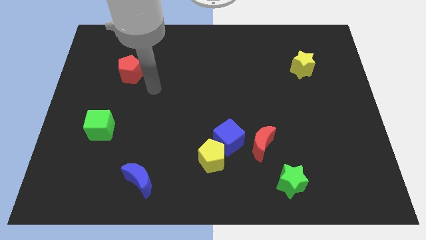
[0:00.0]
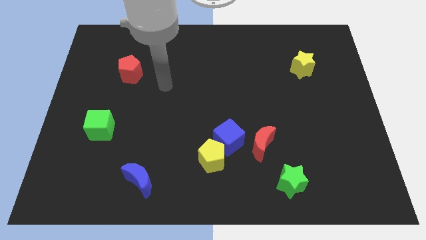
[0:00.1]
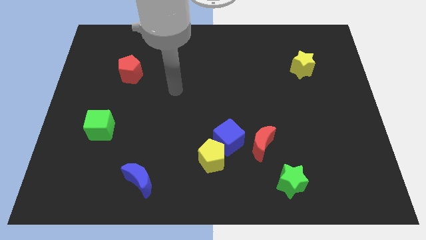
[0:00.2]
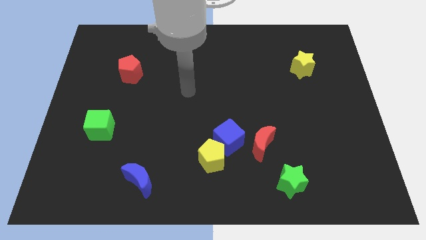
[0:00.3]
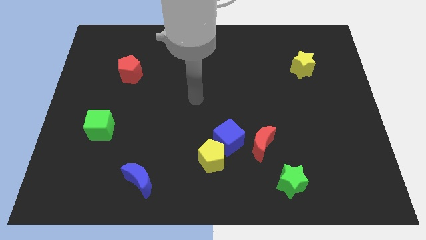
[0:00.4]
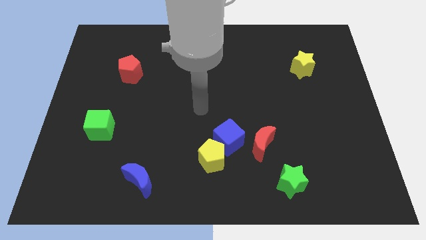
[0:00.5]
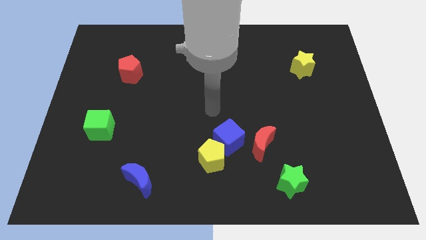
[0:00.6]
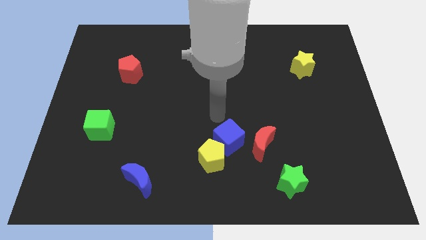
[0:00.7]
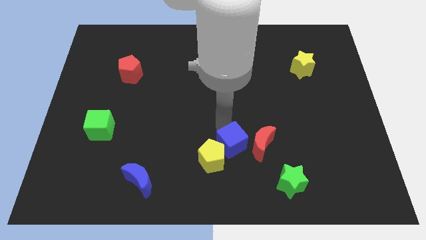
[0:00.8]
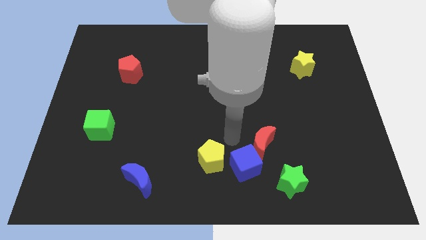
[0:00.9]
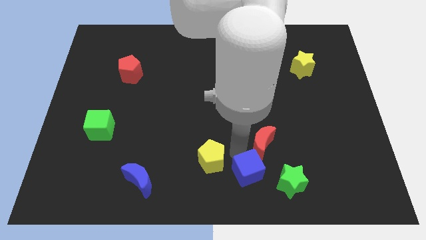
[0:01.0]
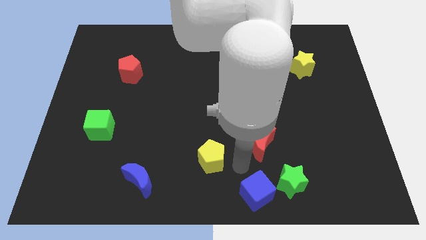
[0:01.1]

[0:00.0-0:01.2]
pull the yellow pentagon apart from the blue cube

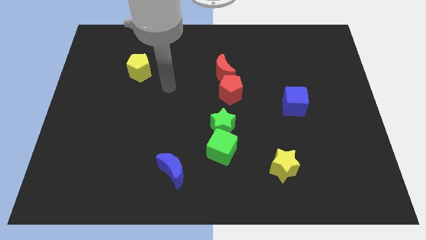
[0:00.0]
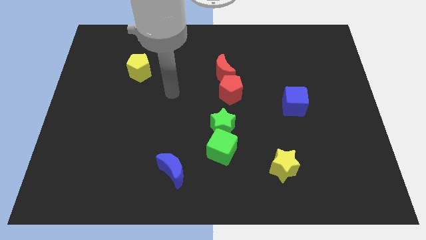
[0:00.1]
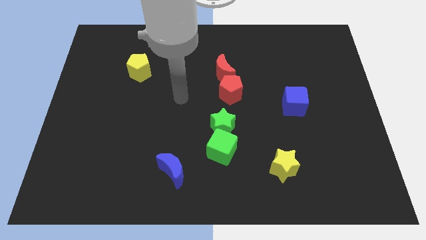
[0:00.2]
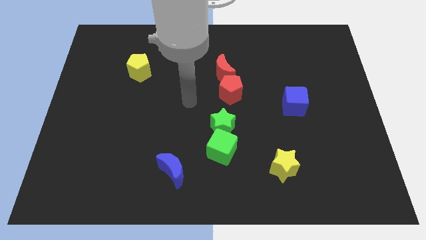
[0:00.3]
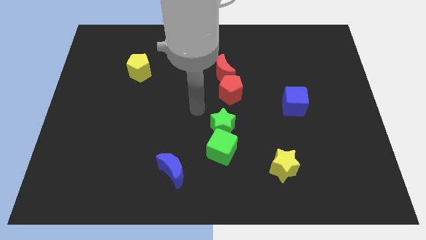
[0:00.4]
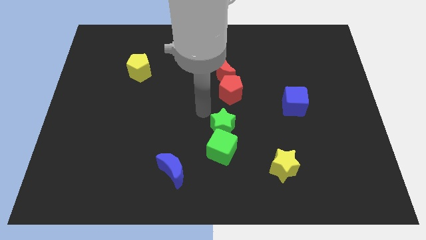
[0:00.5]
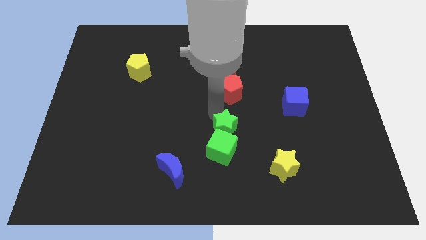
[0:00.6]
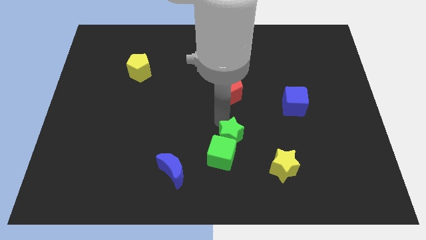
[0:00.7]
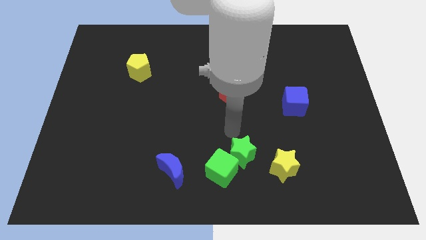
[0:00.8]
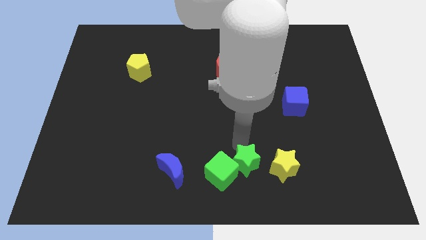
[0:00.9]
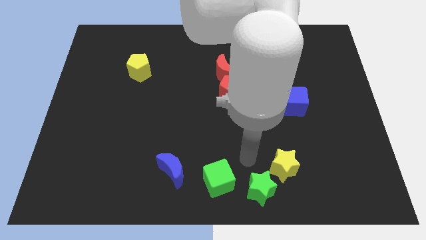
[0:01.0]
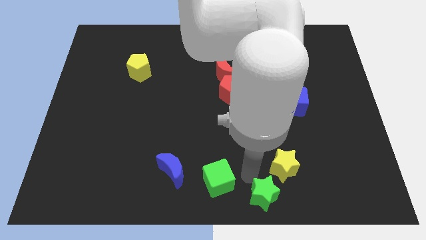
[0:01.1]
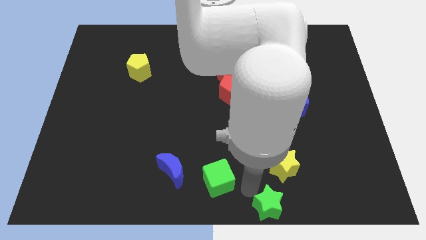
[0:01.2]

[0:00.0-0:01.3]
pull the green cube apart from the green star

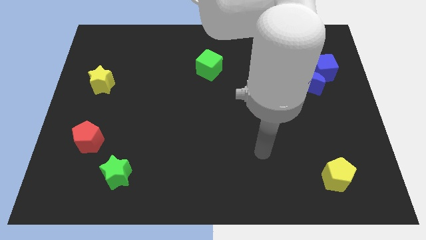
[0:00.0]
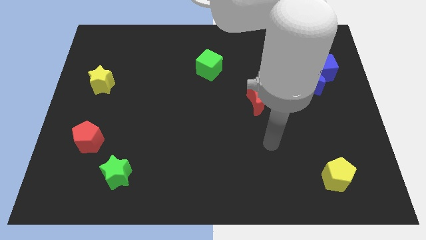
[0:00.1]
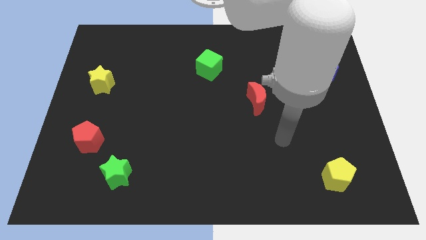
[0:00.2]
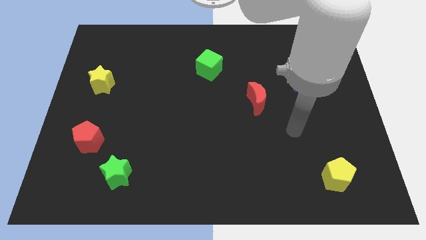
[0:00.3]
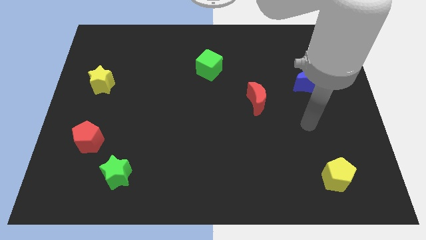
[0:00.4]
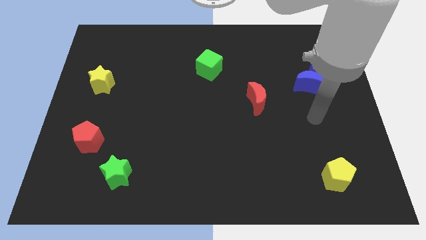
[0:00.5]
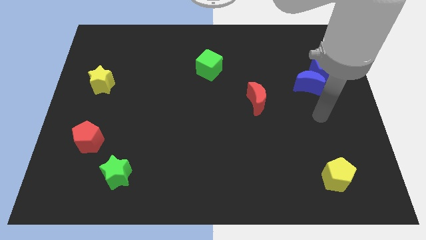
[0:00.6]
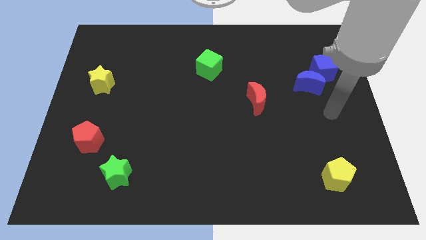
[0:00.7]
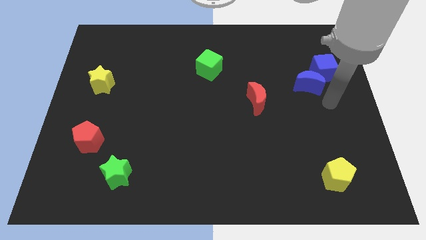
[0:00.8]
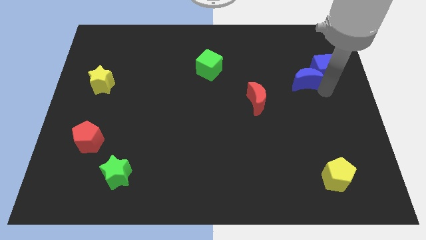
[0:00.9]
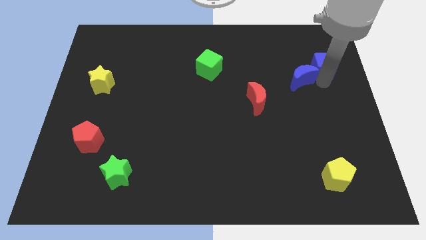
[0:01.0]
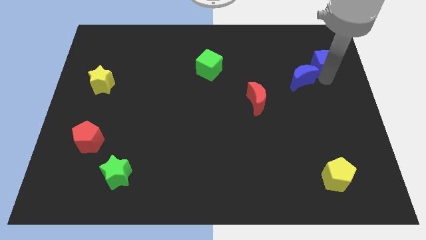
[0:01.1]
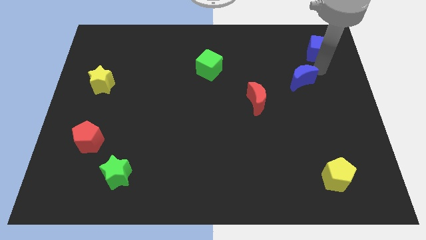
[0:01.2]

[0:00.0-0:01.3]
separate the blue moon from the blue cube

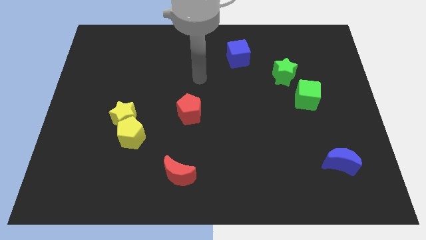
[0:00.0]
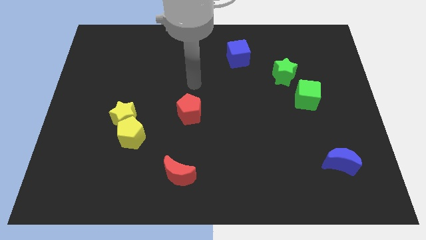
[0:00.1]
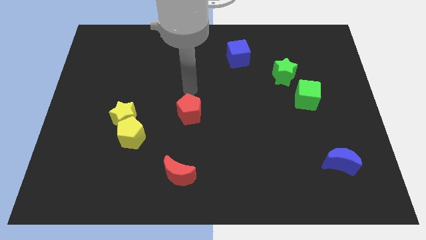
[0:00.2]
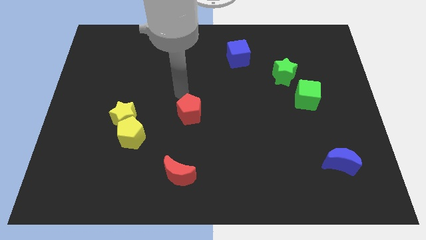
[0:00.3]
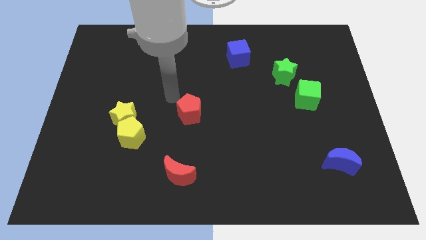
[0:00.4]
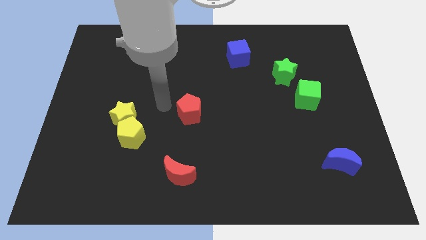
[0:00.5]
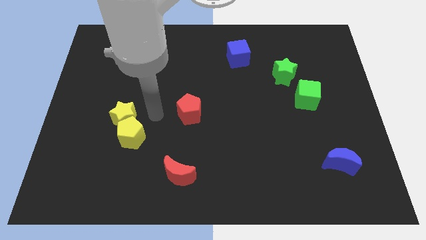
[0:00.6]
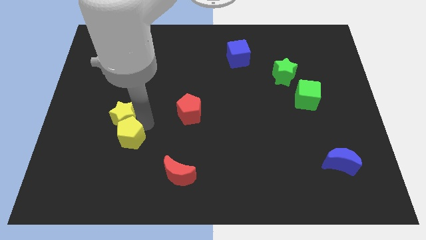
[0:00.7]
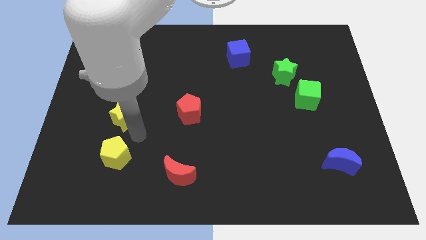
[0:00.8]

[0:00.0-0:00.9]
pull the yellow star apart from the yellow pentagon

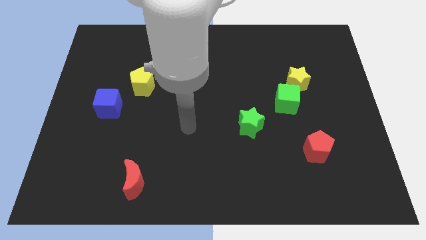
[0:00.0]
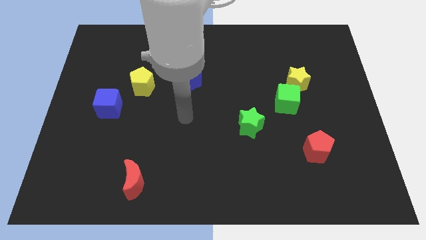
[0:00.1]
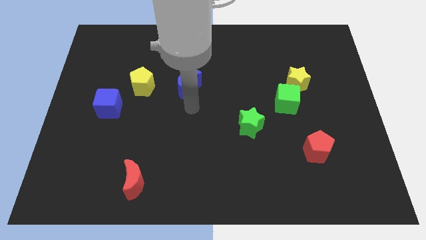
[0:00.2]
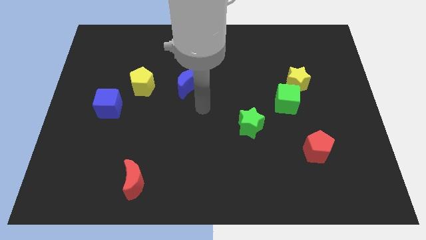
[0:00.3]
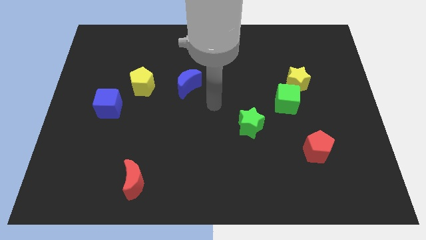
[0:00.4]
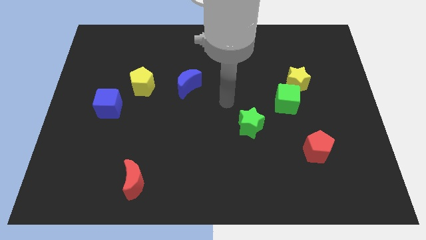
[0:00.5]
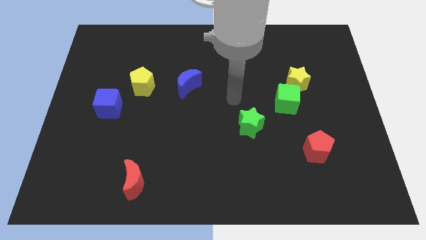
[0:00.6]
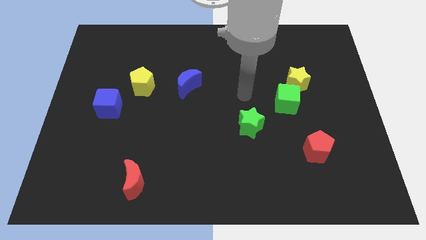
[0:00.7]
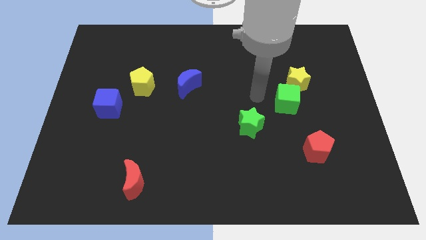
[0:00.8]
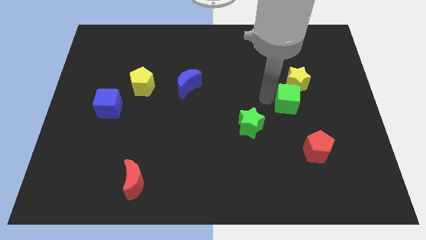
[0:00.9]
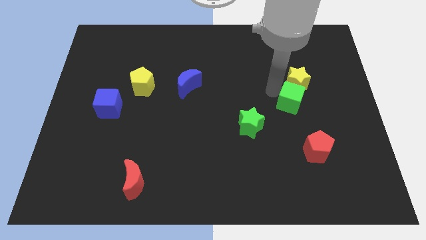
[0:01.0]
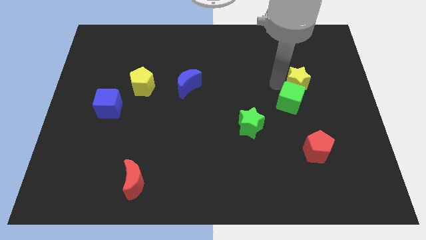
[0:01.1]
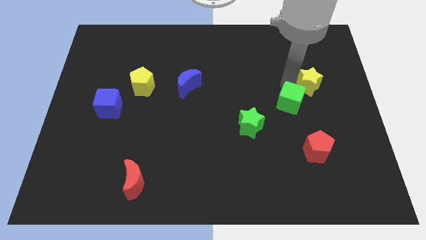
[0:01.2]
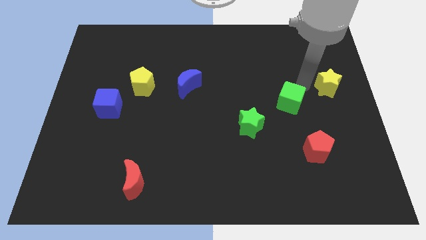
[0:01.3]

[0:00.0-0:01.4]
pull the green cube apart from the yellow star

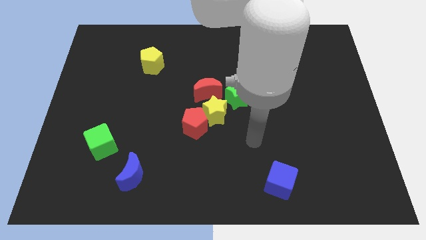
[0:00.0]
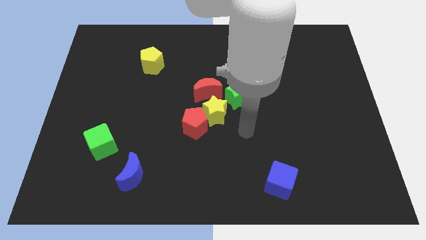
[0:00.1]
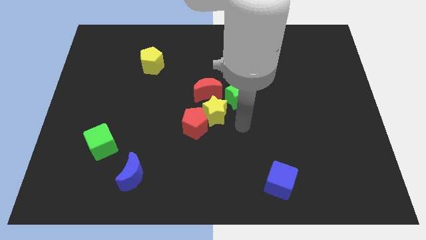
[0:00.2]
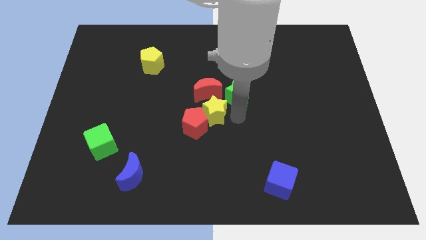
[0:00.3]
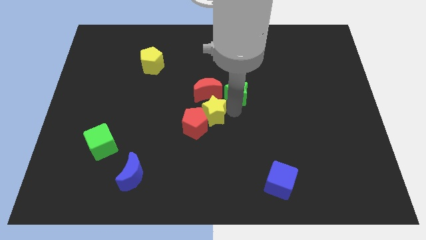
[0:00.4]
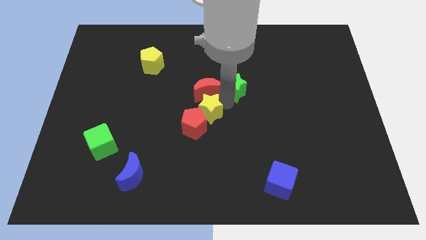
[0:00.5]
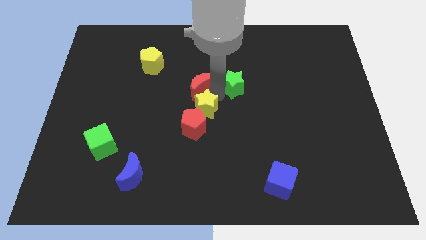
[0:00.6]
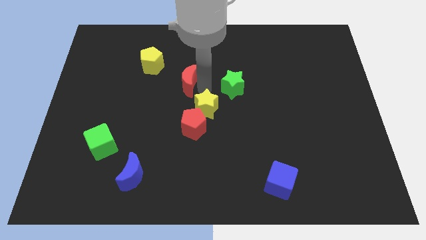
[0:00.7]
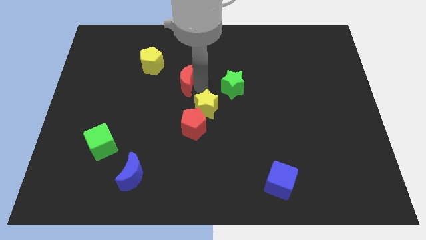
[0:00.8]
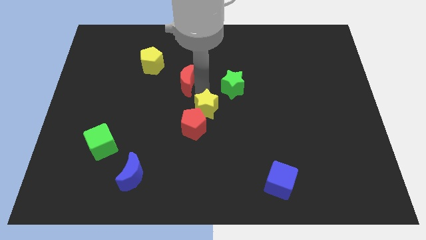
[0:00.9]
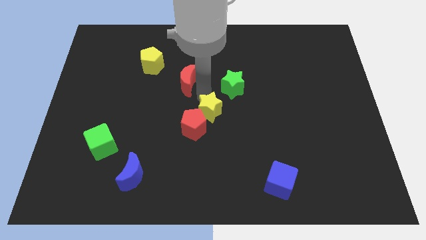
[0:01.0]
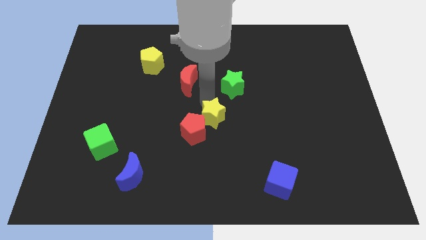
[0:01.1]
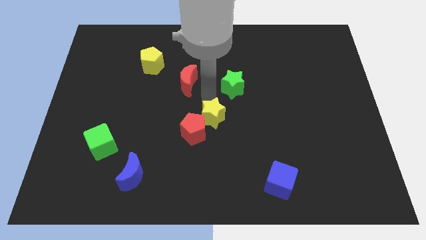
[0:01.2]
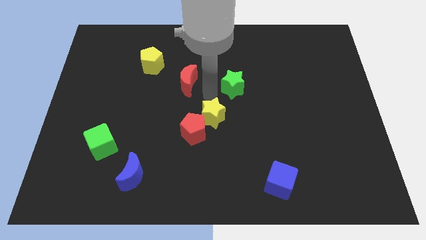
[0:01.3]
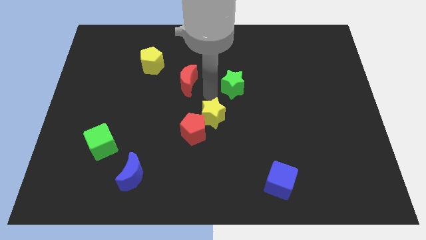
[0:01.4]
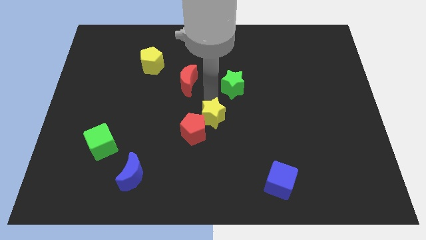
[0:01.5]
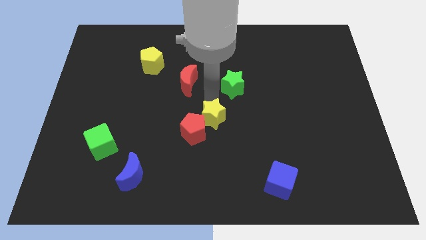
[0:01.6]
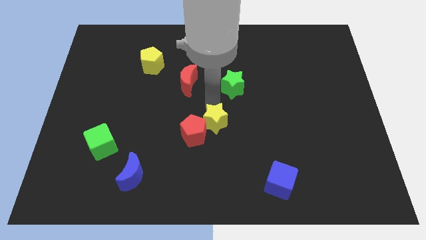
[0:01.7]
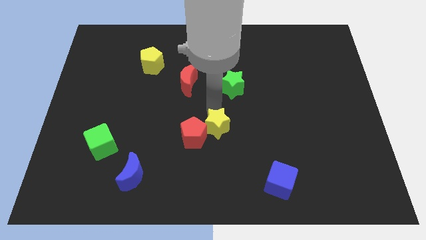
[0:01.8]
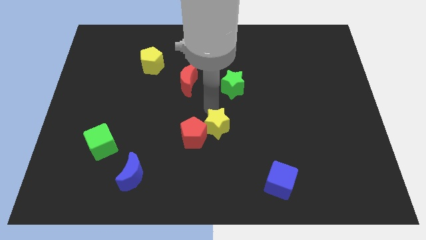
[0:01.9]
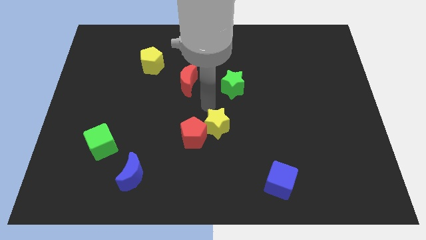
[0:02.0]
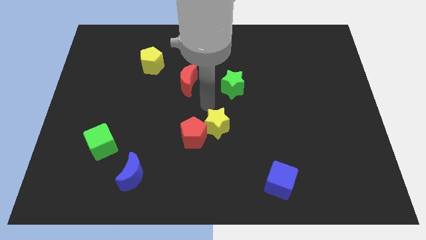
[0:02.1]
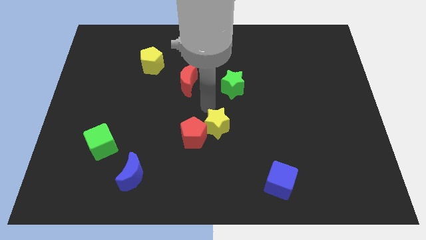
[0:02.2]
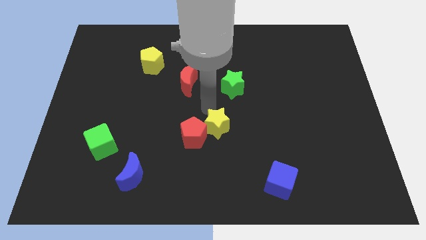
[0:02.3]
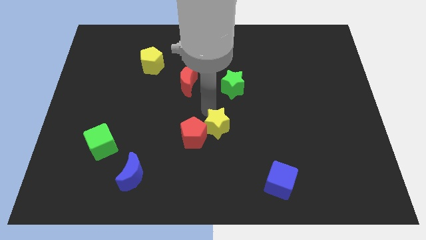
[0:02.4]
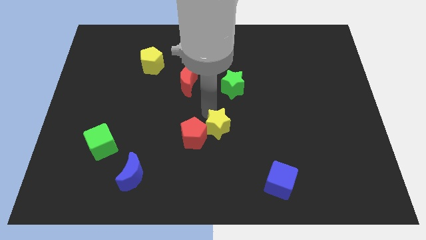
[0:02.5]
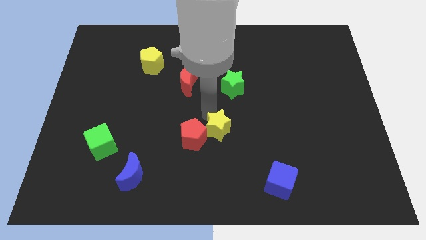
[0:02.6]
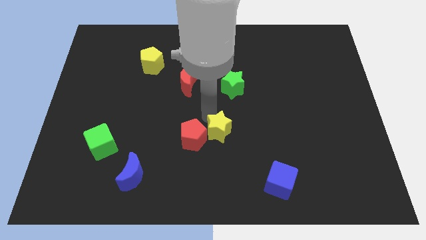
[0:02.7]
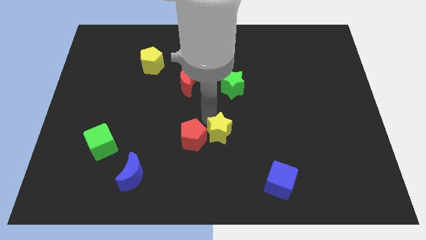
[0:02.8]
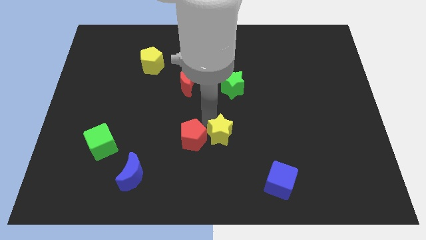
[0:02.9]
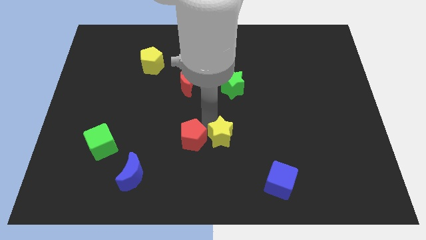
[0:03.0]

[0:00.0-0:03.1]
separate the yellow star from the red pentagon, red moon, and green star
